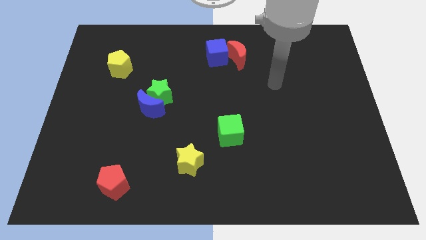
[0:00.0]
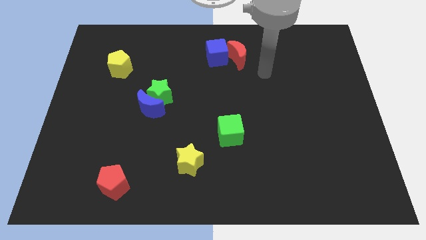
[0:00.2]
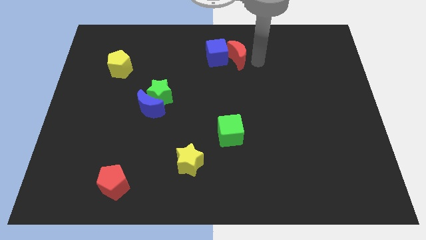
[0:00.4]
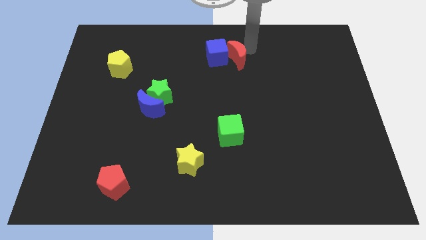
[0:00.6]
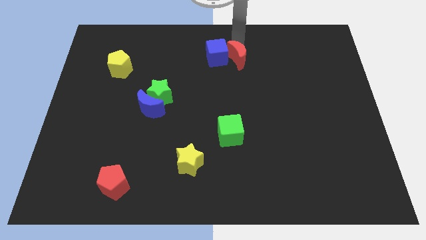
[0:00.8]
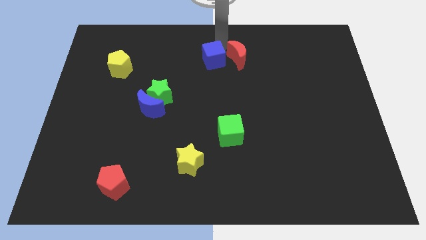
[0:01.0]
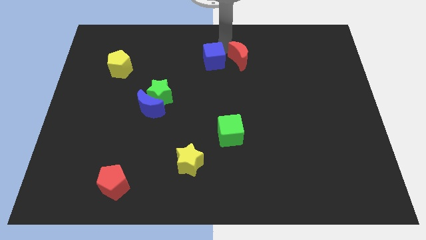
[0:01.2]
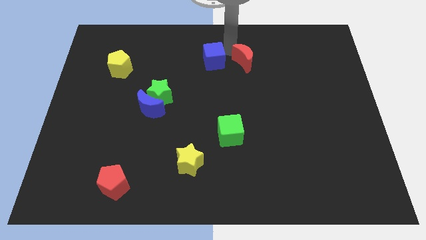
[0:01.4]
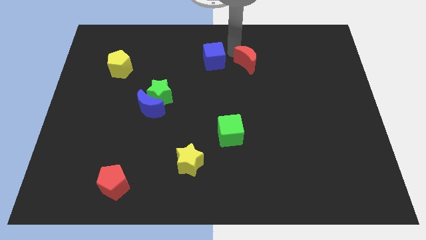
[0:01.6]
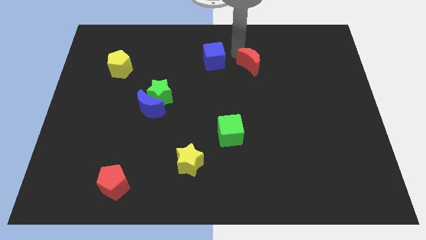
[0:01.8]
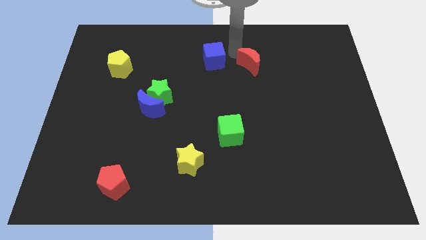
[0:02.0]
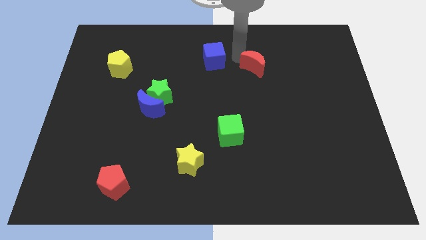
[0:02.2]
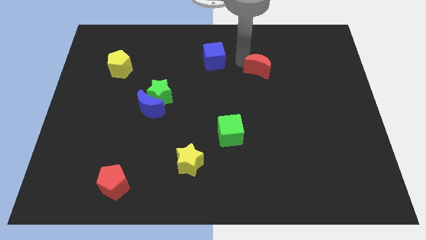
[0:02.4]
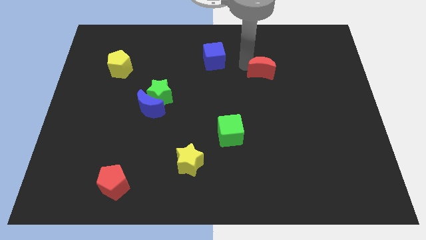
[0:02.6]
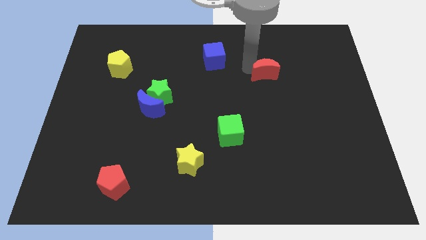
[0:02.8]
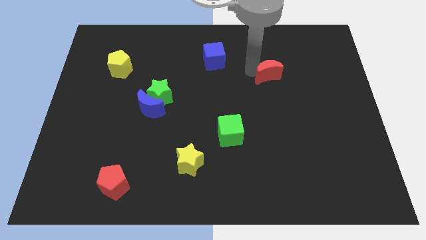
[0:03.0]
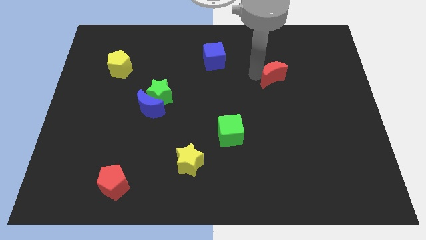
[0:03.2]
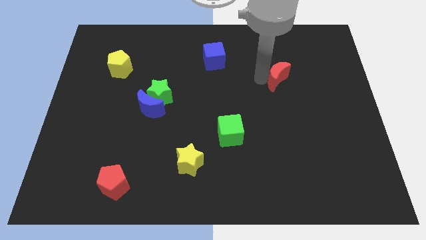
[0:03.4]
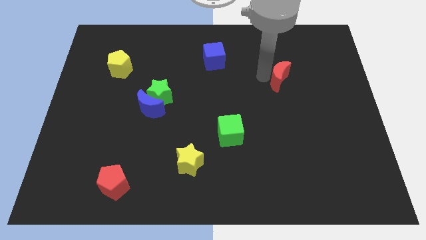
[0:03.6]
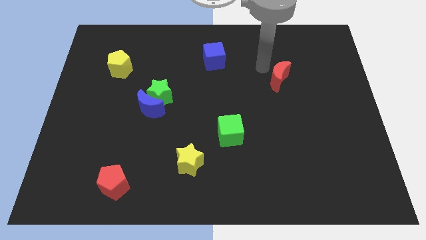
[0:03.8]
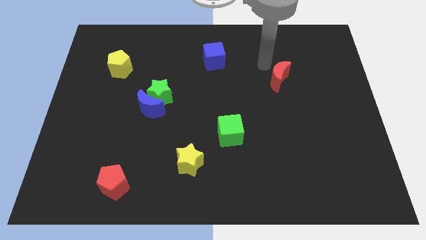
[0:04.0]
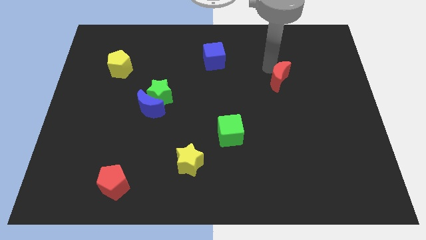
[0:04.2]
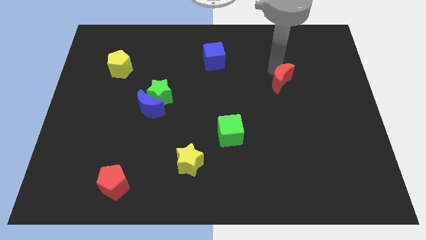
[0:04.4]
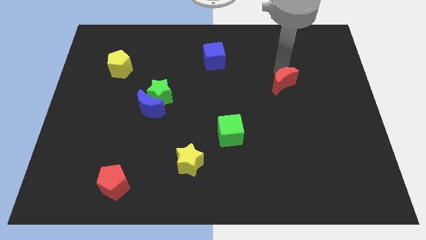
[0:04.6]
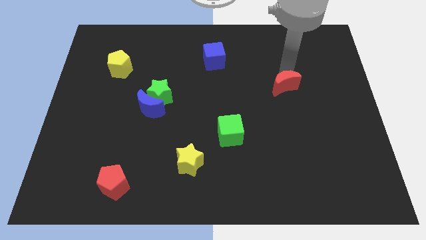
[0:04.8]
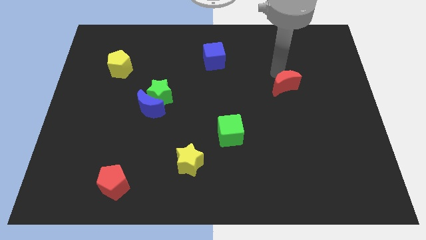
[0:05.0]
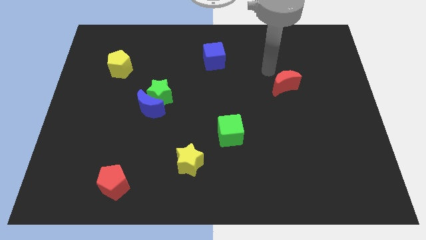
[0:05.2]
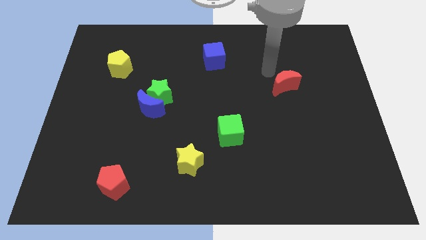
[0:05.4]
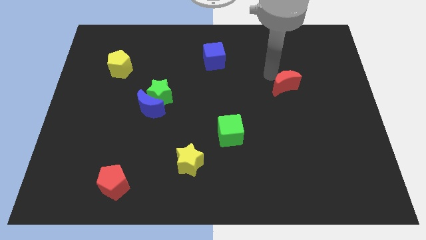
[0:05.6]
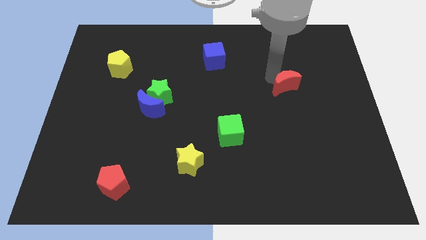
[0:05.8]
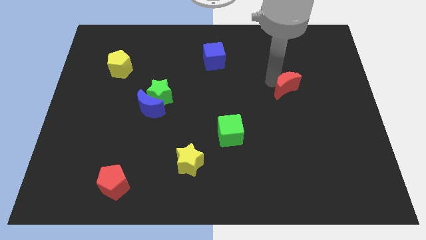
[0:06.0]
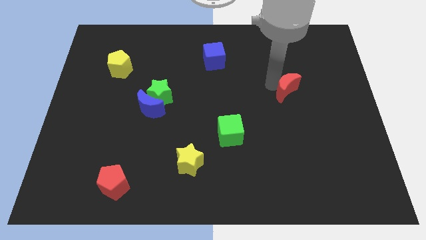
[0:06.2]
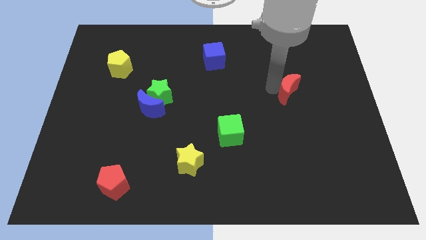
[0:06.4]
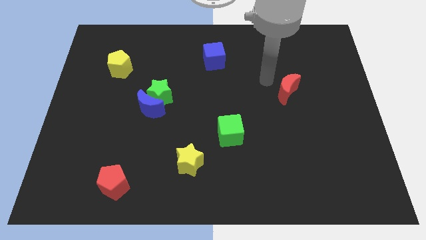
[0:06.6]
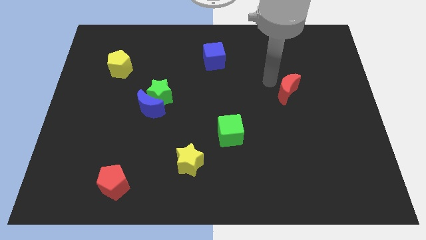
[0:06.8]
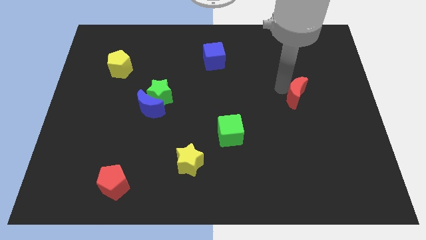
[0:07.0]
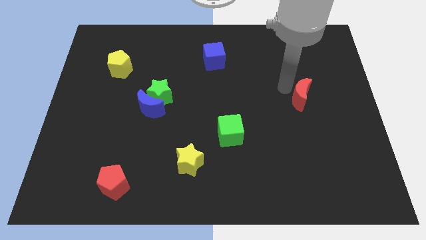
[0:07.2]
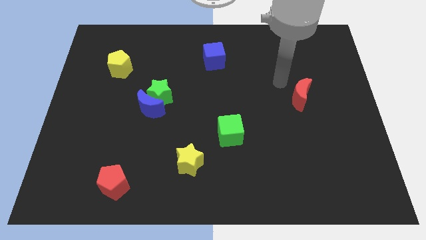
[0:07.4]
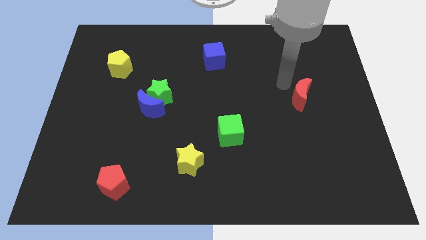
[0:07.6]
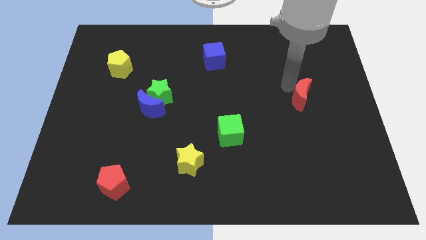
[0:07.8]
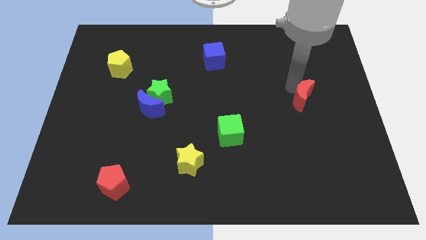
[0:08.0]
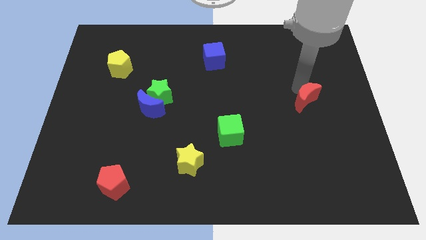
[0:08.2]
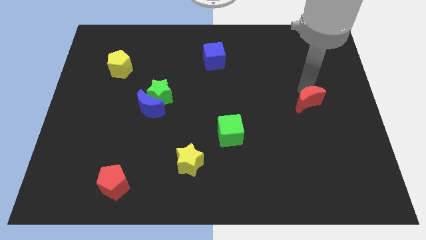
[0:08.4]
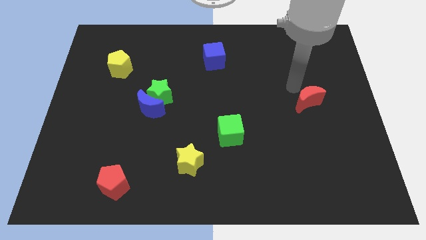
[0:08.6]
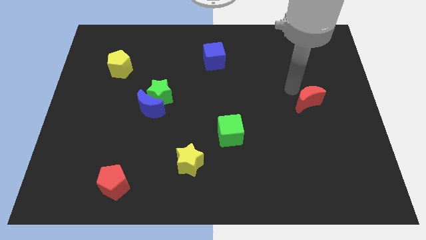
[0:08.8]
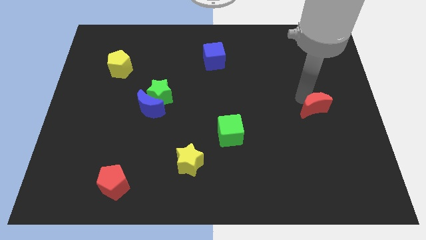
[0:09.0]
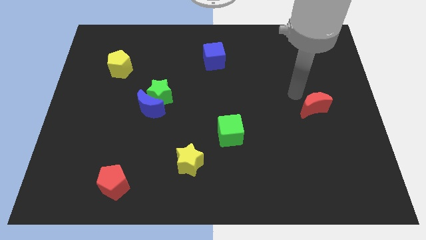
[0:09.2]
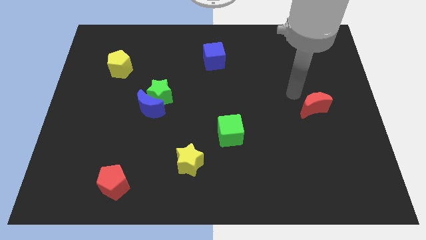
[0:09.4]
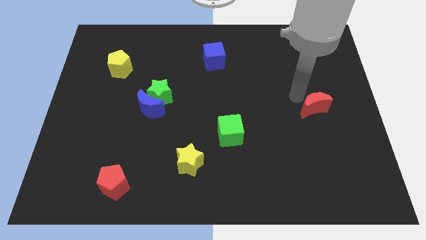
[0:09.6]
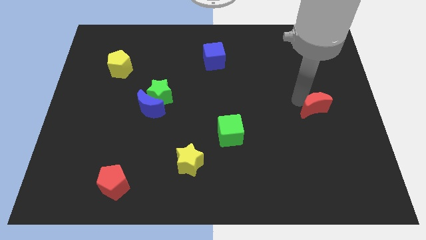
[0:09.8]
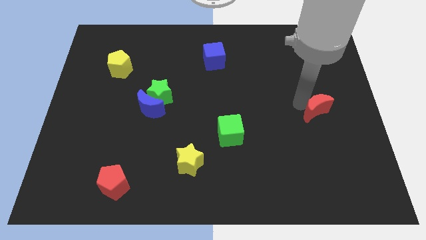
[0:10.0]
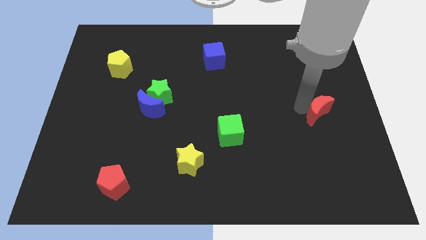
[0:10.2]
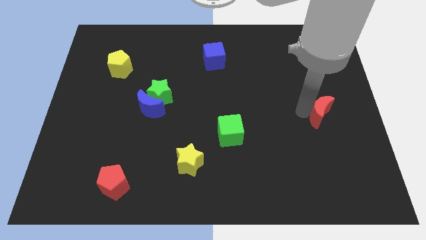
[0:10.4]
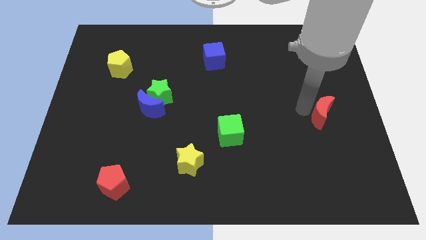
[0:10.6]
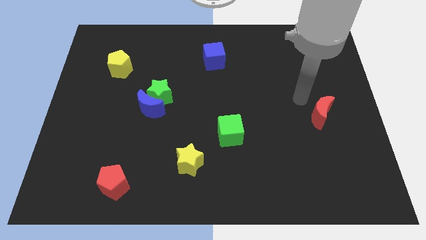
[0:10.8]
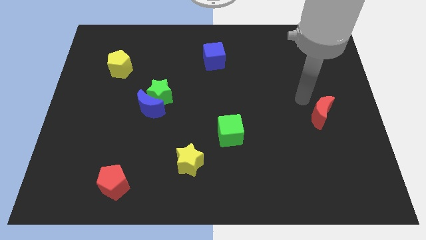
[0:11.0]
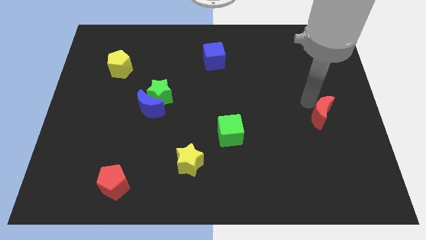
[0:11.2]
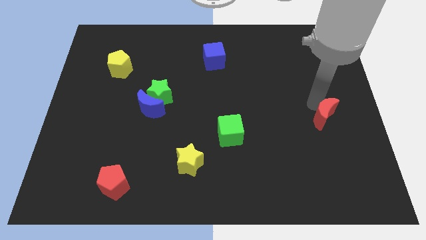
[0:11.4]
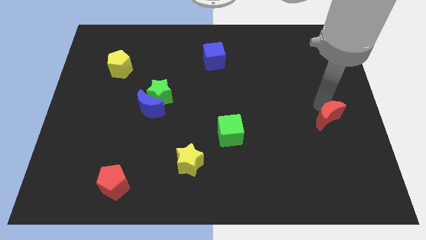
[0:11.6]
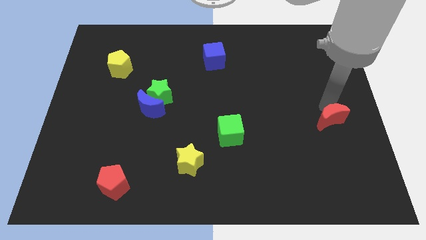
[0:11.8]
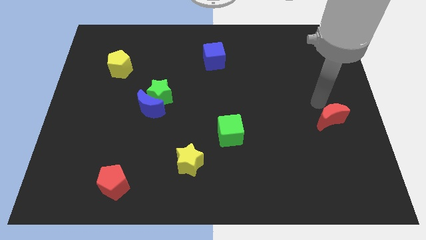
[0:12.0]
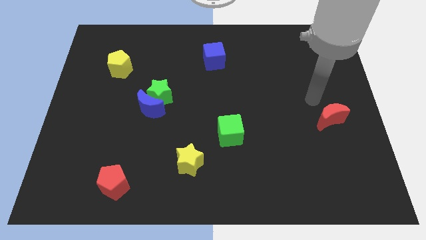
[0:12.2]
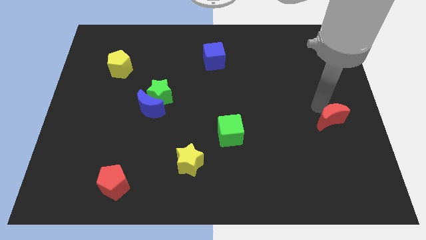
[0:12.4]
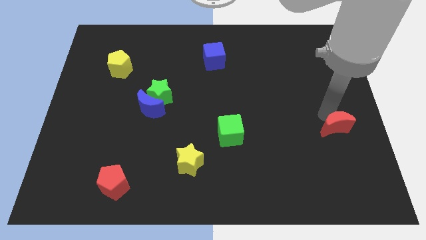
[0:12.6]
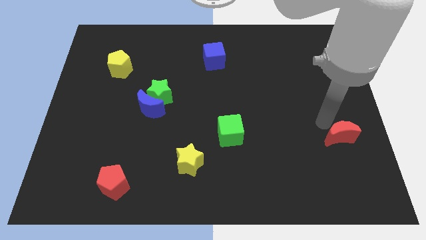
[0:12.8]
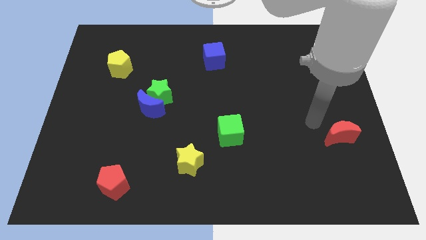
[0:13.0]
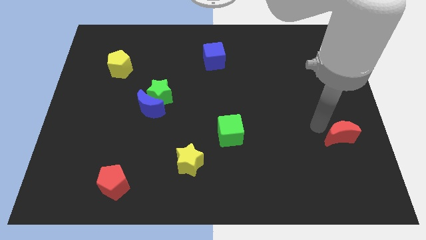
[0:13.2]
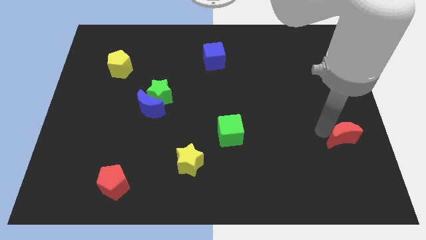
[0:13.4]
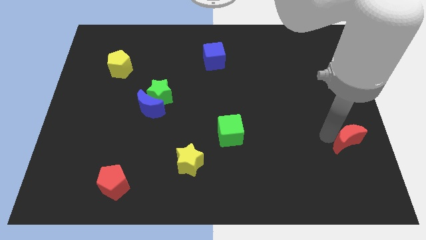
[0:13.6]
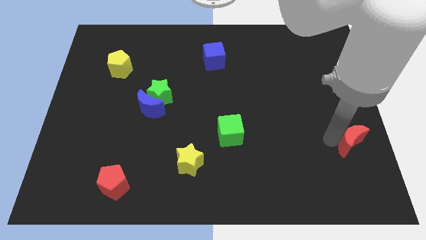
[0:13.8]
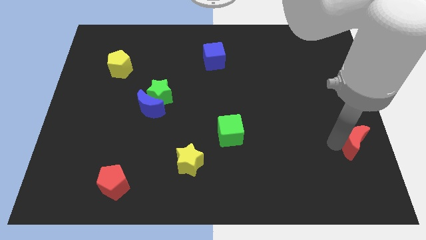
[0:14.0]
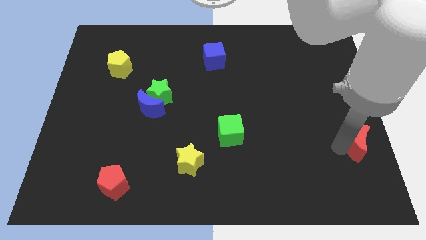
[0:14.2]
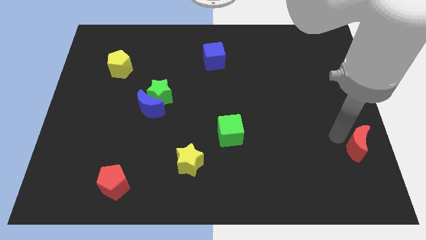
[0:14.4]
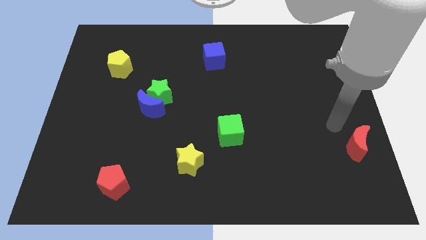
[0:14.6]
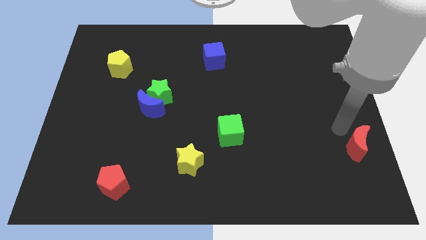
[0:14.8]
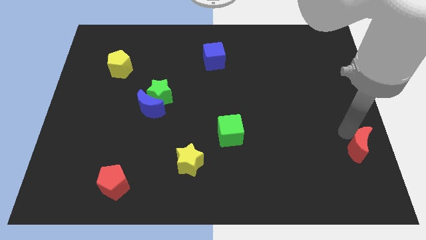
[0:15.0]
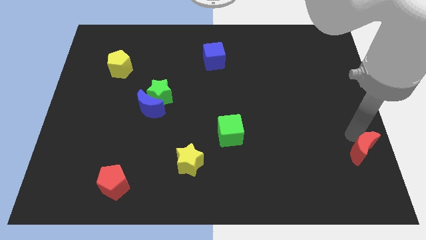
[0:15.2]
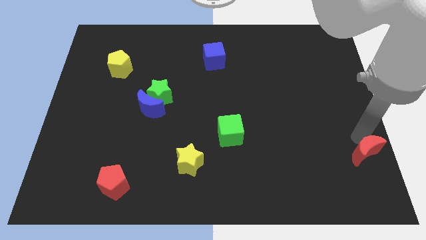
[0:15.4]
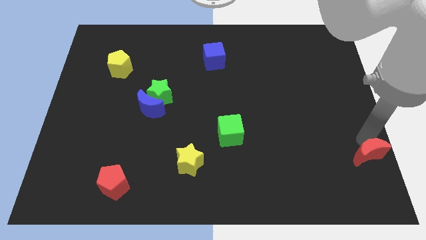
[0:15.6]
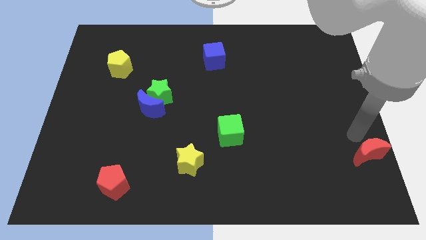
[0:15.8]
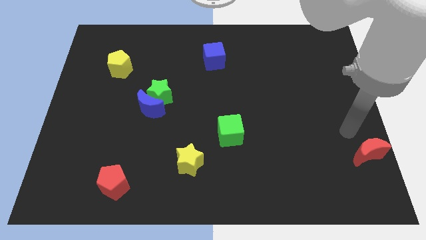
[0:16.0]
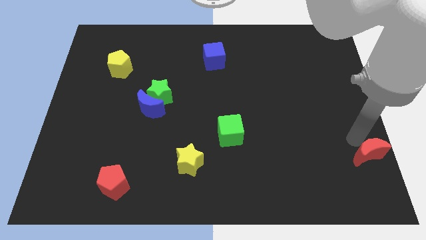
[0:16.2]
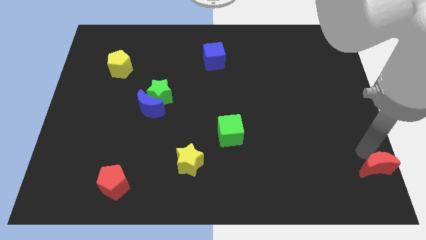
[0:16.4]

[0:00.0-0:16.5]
slide the red moon to the bottom right
